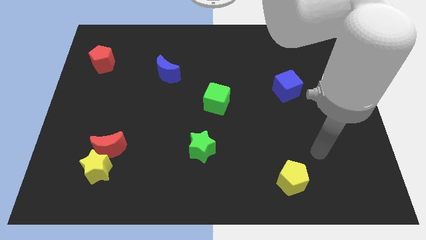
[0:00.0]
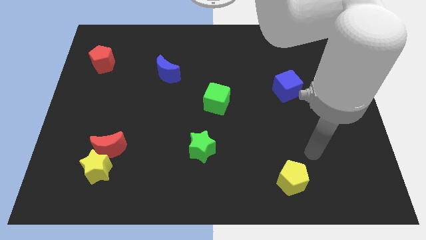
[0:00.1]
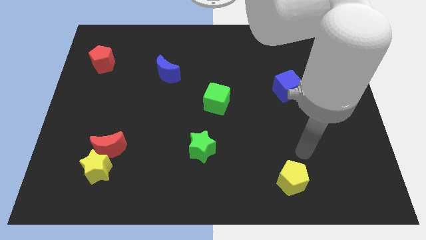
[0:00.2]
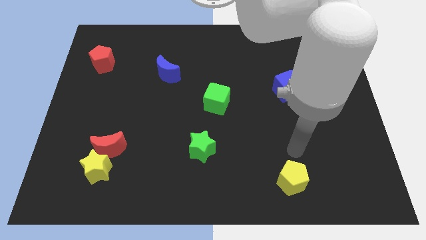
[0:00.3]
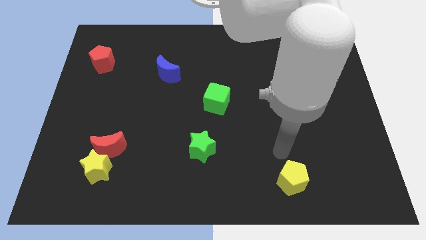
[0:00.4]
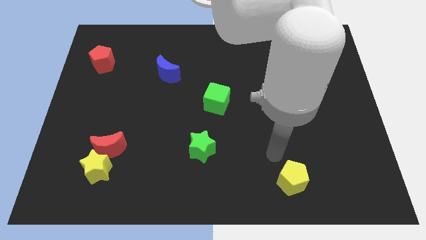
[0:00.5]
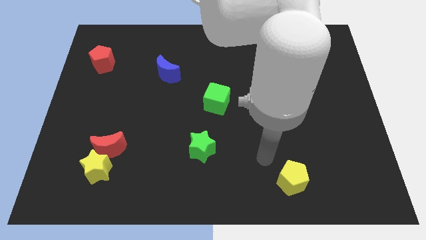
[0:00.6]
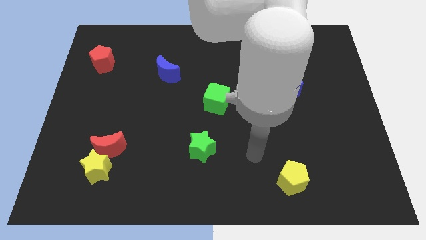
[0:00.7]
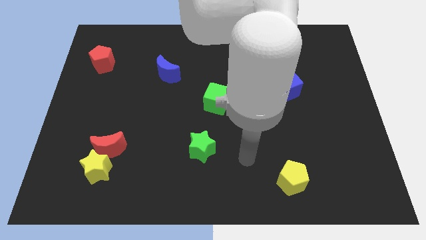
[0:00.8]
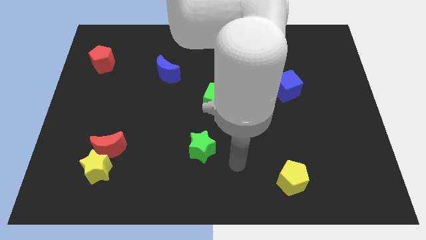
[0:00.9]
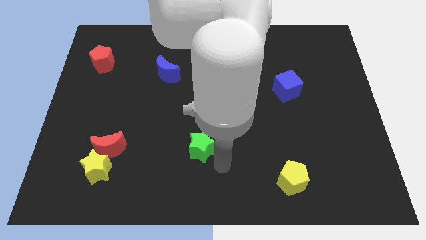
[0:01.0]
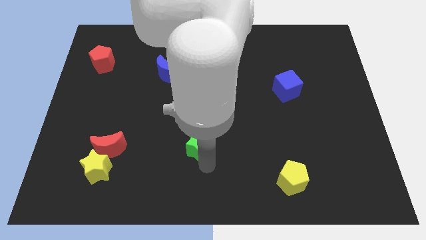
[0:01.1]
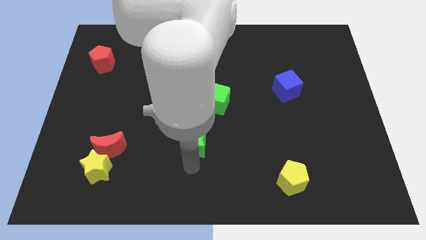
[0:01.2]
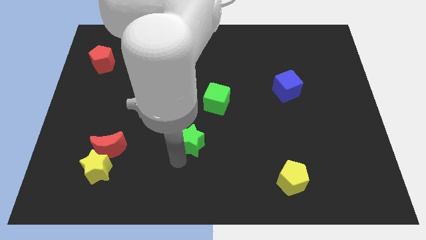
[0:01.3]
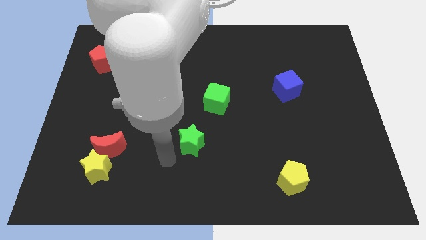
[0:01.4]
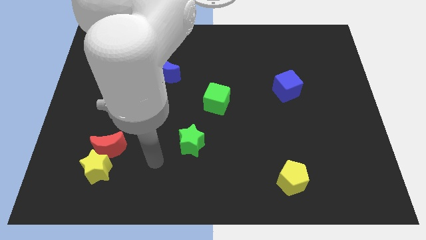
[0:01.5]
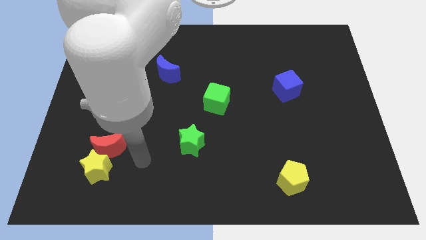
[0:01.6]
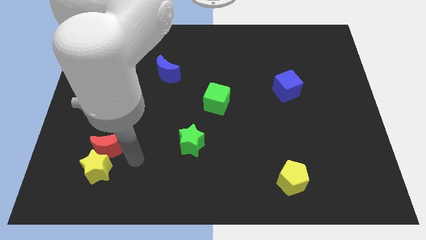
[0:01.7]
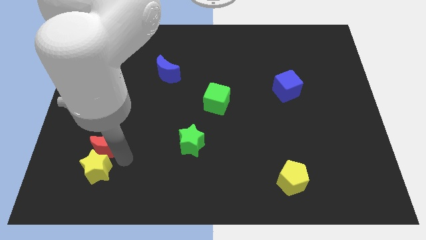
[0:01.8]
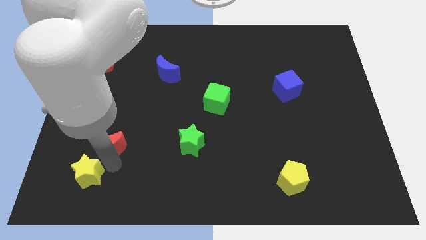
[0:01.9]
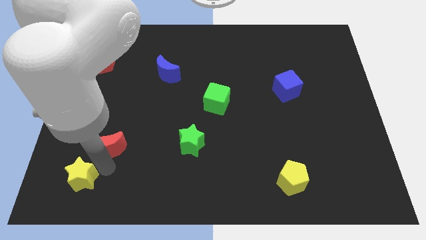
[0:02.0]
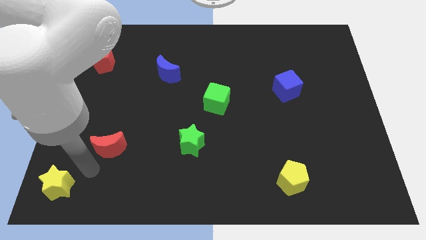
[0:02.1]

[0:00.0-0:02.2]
separate the red moon from the yellow star

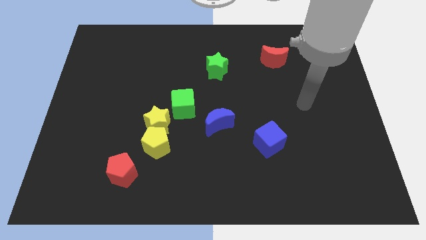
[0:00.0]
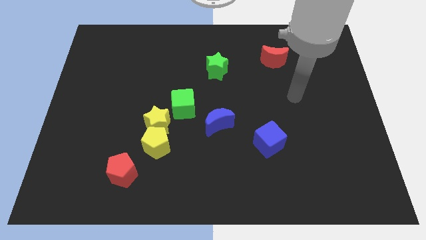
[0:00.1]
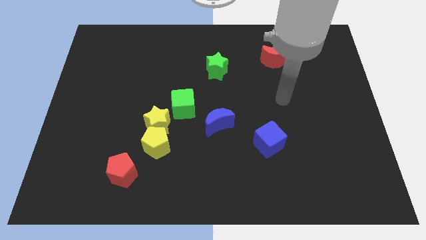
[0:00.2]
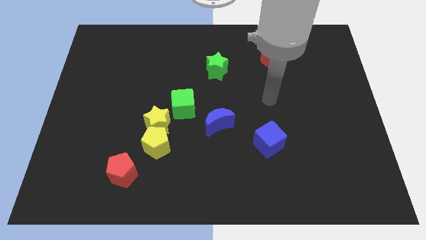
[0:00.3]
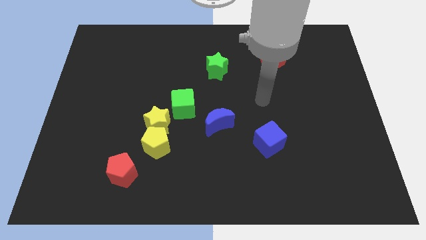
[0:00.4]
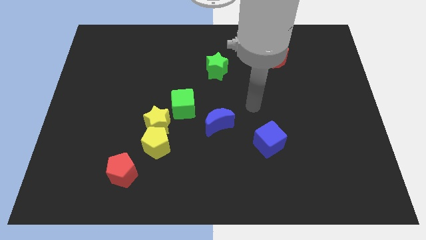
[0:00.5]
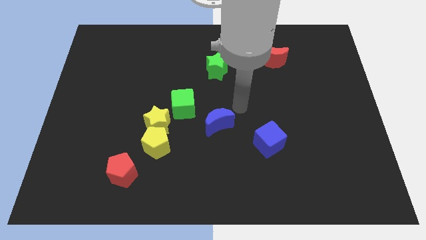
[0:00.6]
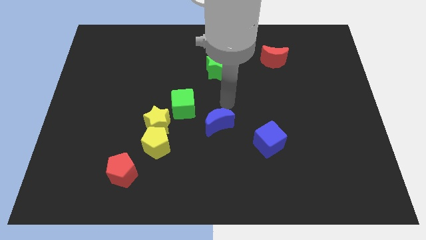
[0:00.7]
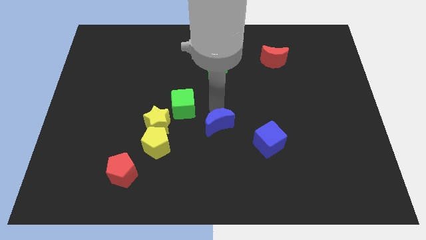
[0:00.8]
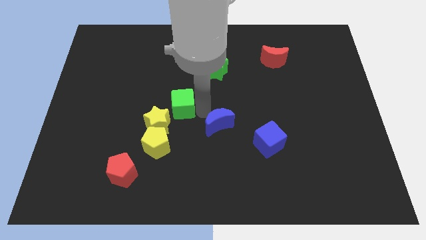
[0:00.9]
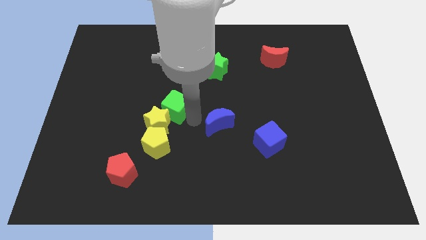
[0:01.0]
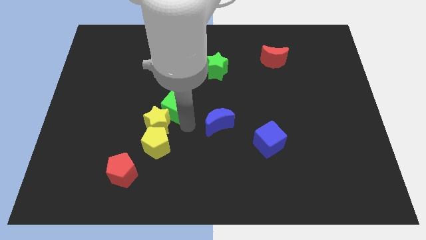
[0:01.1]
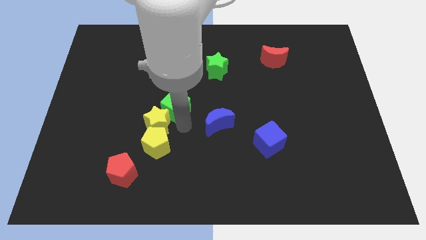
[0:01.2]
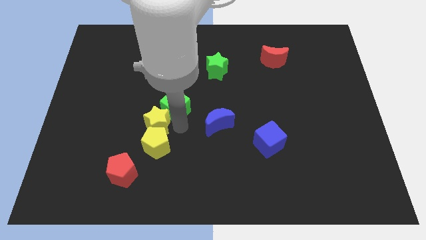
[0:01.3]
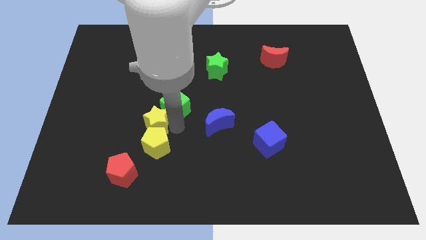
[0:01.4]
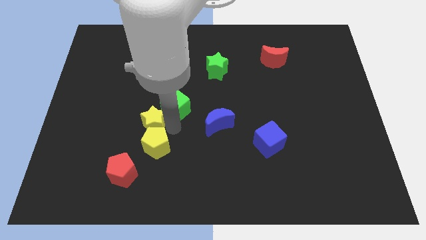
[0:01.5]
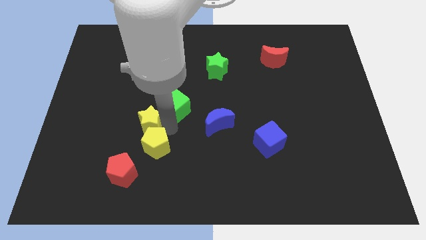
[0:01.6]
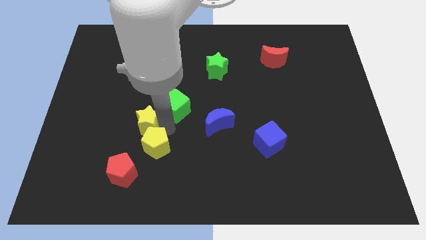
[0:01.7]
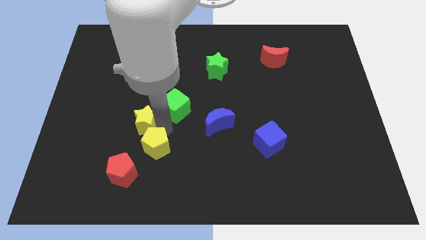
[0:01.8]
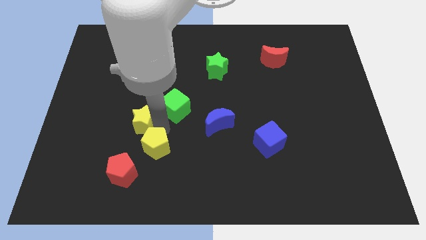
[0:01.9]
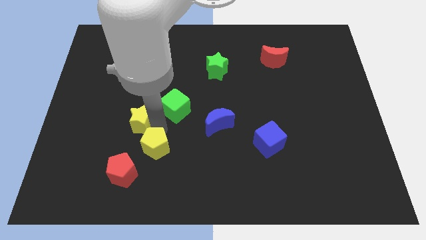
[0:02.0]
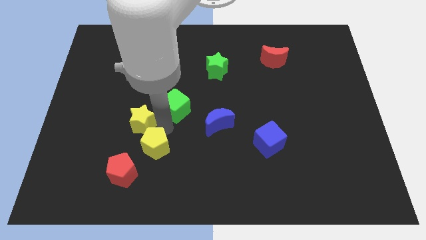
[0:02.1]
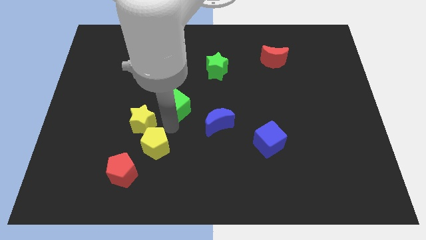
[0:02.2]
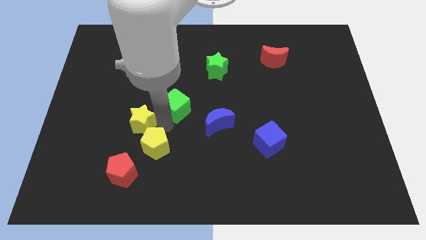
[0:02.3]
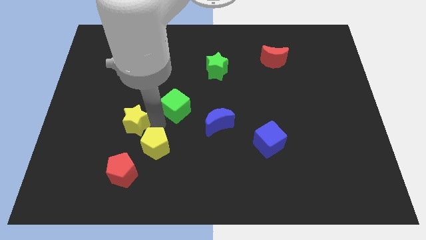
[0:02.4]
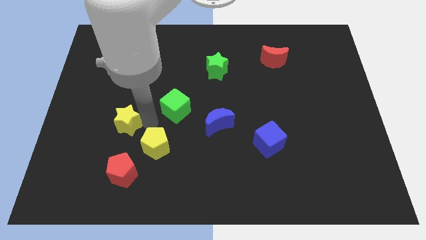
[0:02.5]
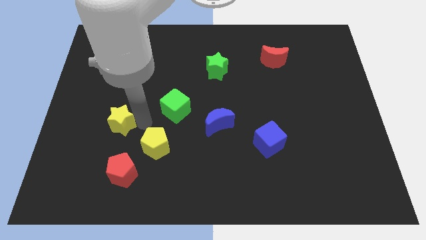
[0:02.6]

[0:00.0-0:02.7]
pull the yellow star apart from the yellow pentagon and green cube

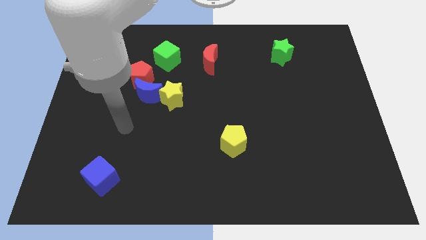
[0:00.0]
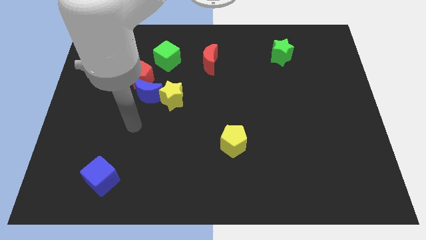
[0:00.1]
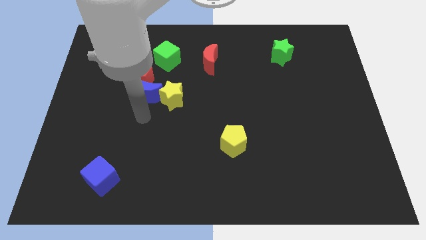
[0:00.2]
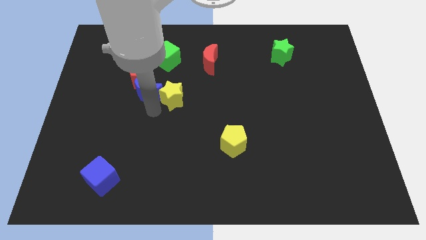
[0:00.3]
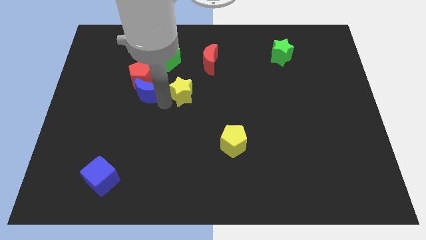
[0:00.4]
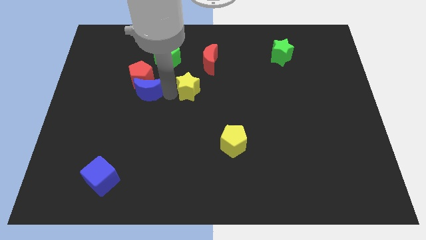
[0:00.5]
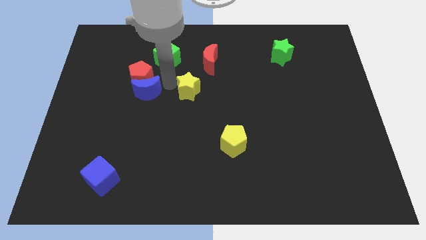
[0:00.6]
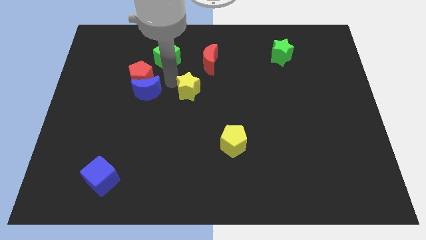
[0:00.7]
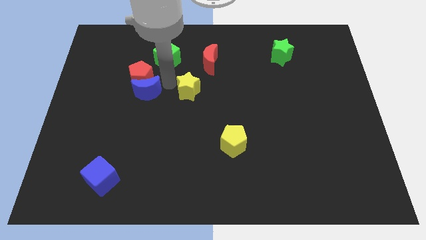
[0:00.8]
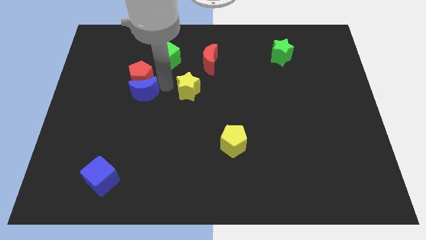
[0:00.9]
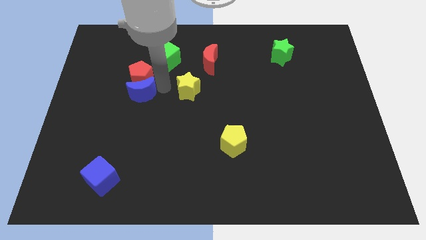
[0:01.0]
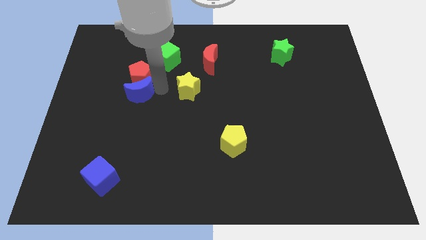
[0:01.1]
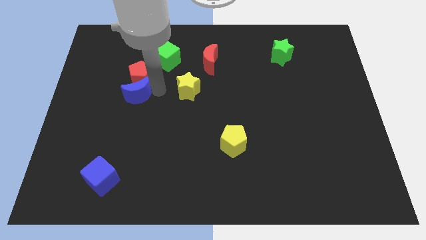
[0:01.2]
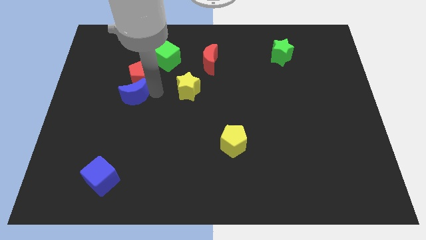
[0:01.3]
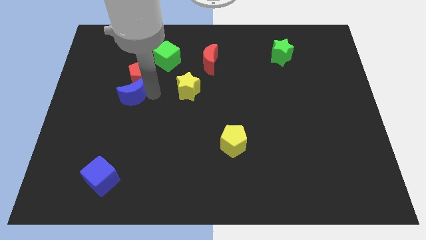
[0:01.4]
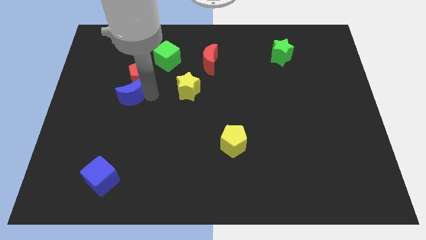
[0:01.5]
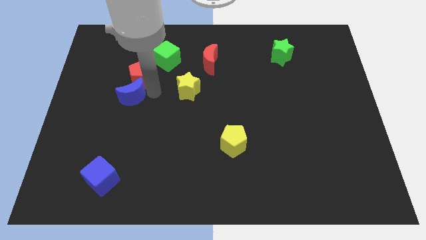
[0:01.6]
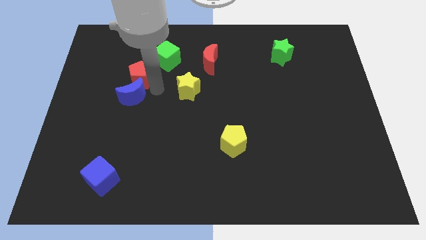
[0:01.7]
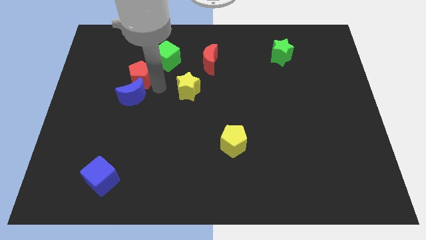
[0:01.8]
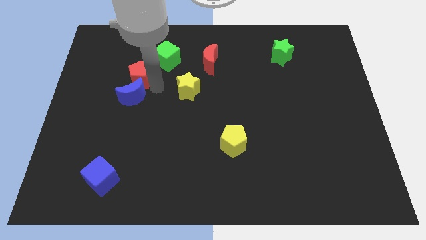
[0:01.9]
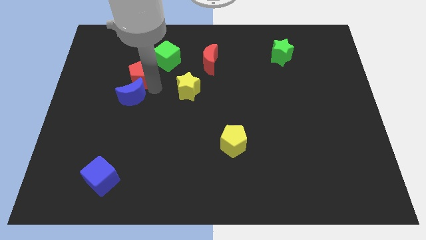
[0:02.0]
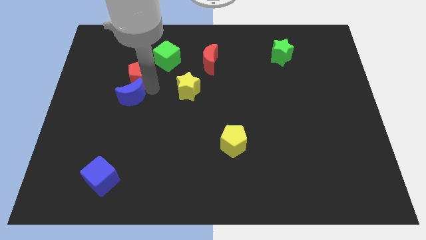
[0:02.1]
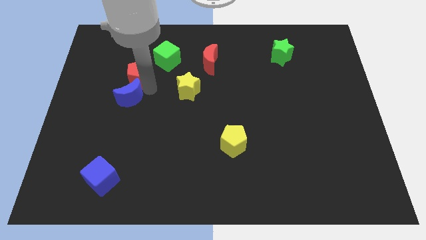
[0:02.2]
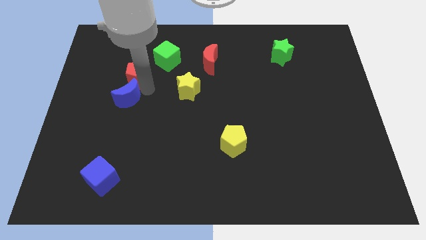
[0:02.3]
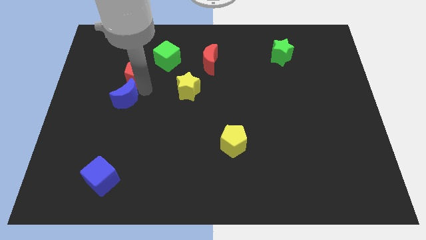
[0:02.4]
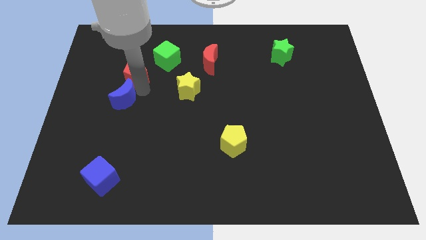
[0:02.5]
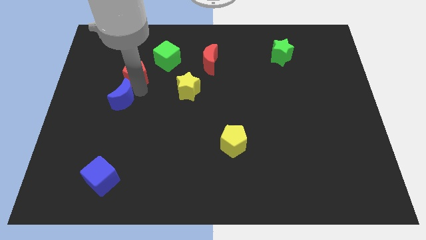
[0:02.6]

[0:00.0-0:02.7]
move the blue moon away from the red pentagon and yellow star

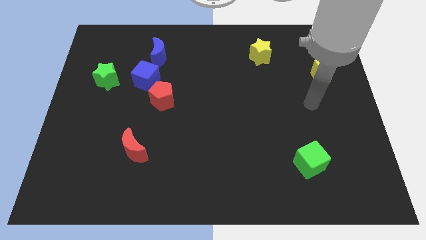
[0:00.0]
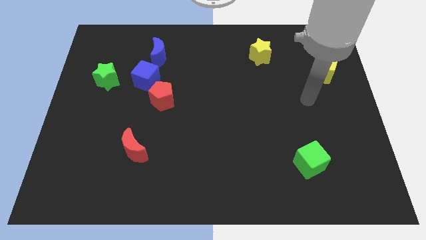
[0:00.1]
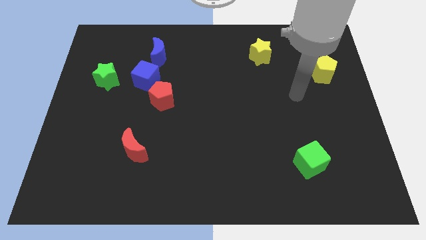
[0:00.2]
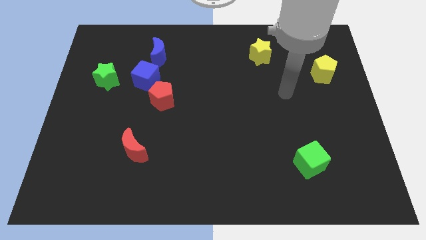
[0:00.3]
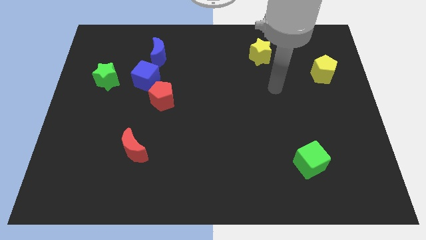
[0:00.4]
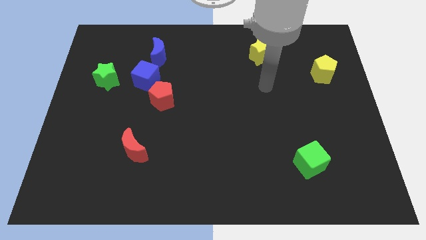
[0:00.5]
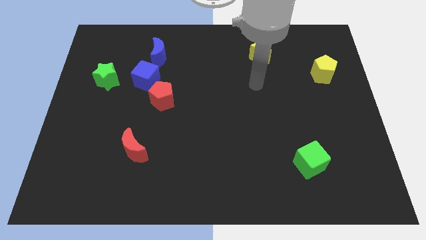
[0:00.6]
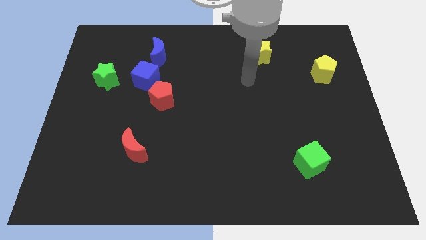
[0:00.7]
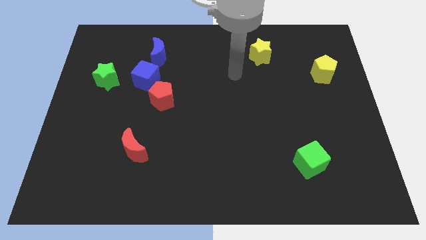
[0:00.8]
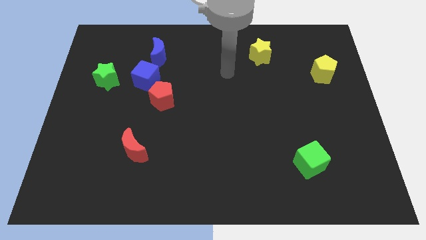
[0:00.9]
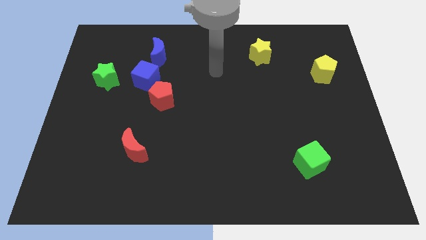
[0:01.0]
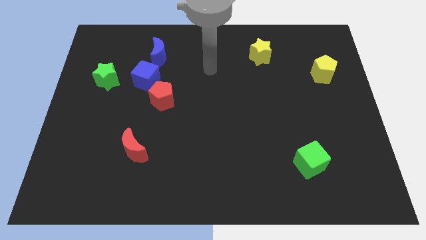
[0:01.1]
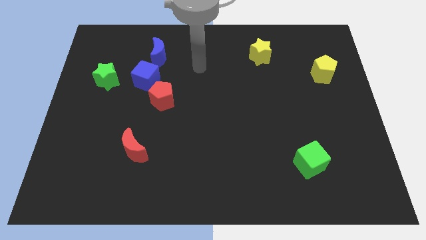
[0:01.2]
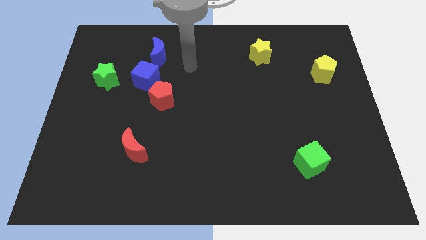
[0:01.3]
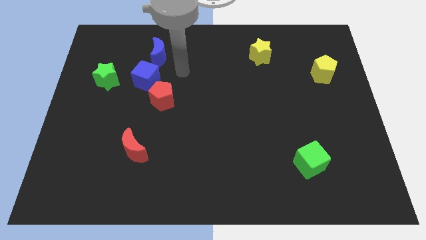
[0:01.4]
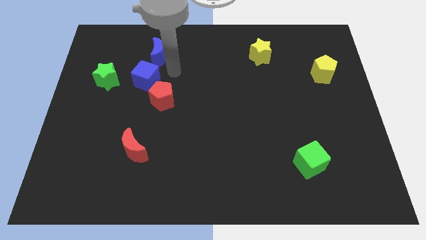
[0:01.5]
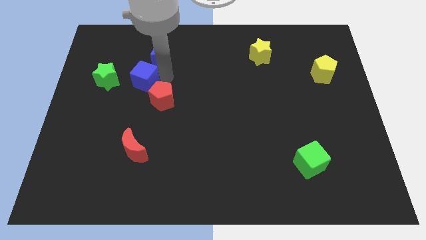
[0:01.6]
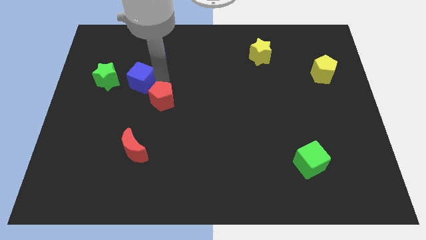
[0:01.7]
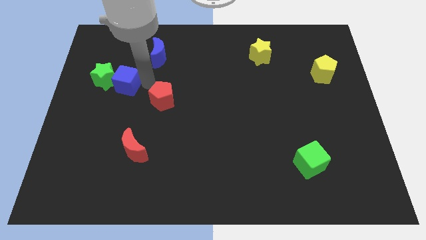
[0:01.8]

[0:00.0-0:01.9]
separate the red pentagon from the blue cube
